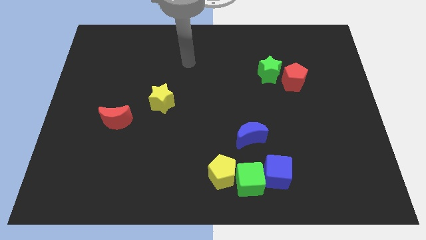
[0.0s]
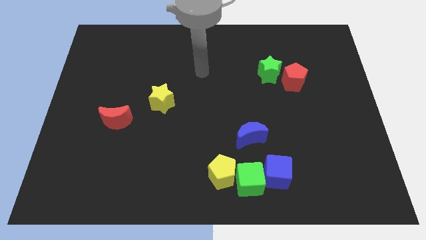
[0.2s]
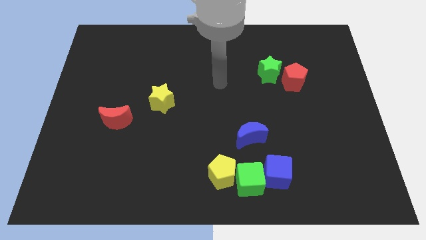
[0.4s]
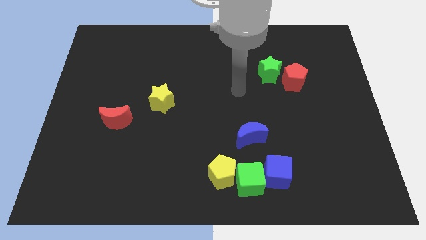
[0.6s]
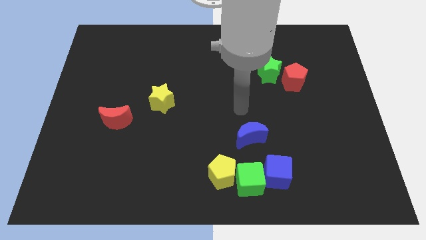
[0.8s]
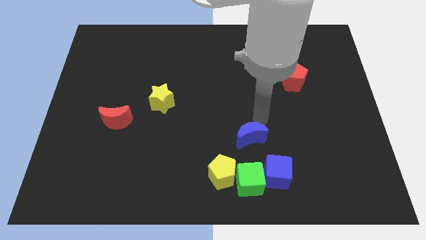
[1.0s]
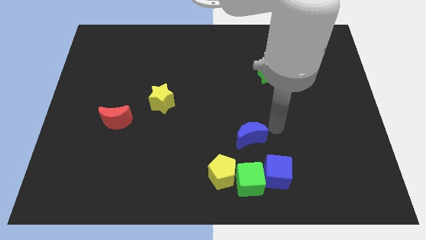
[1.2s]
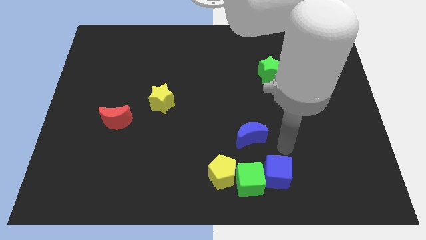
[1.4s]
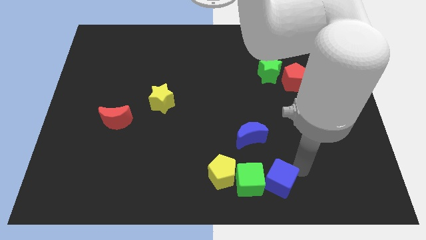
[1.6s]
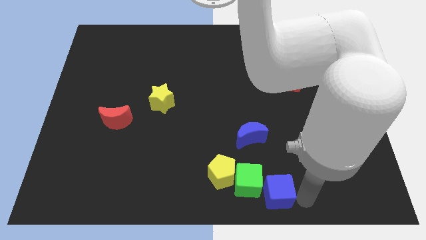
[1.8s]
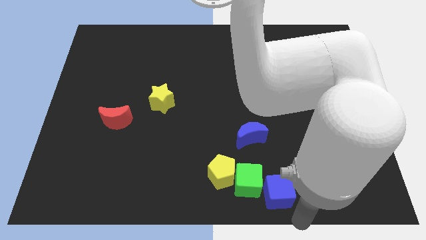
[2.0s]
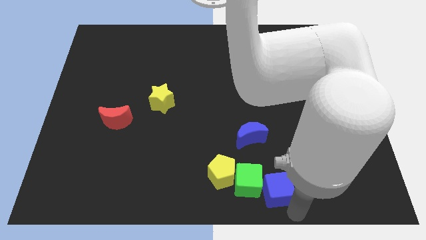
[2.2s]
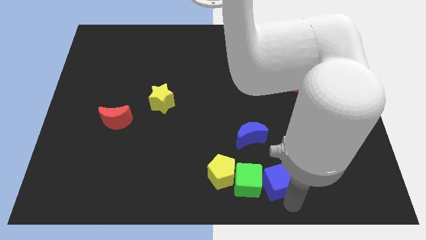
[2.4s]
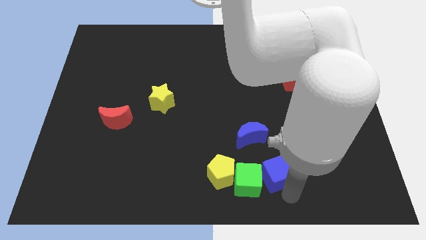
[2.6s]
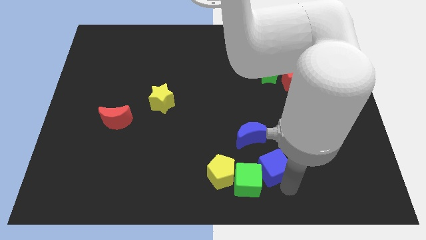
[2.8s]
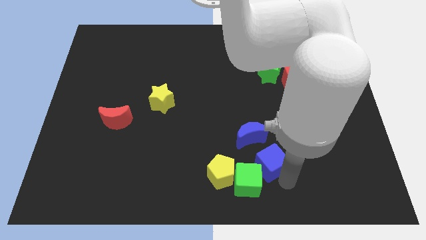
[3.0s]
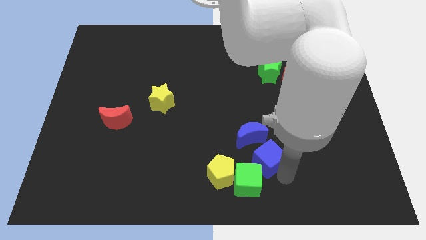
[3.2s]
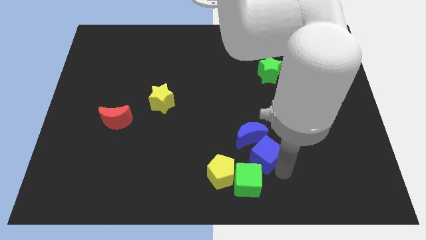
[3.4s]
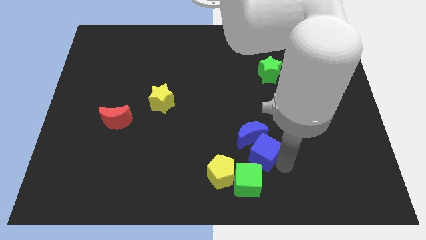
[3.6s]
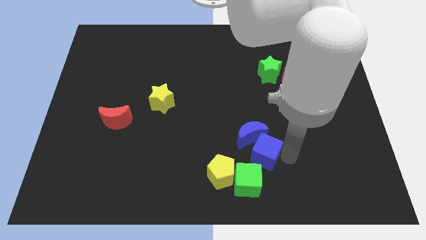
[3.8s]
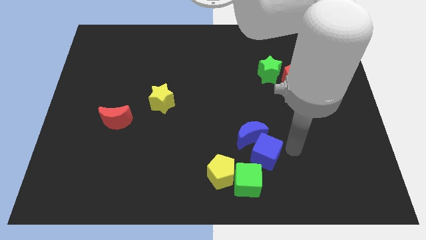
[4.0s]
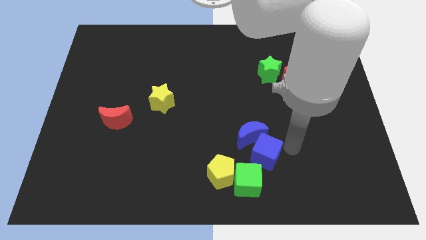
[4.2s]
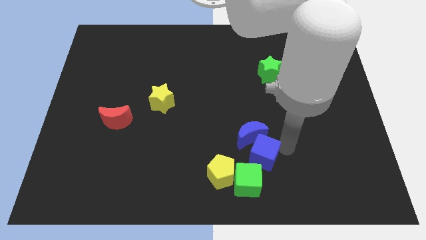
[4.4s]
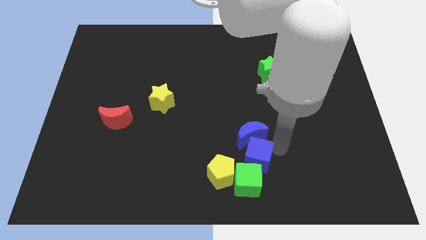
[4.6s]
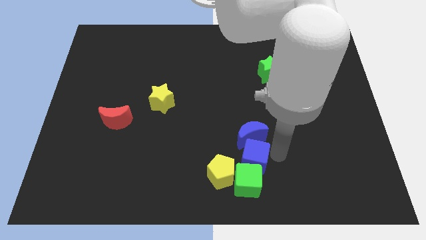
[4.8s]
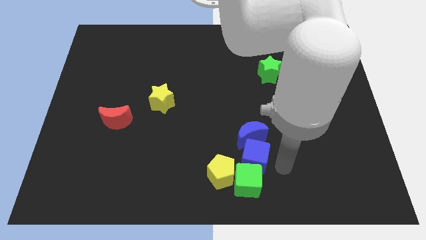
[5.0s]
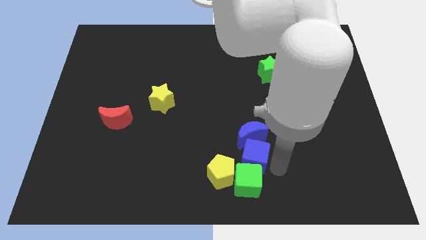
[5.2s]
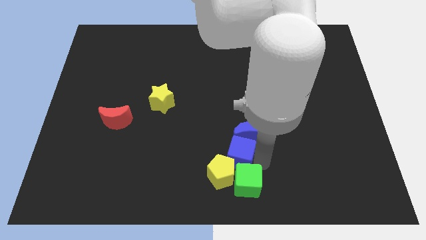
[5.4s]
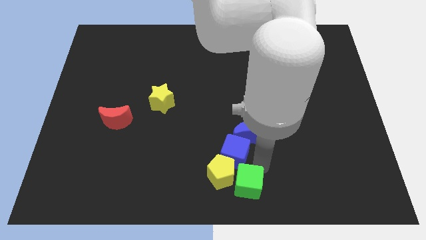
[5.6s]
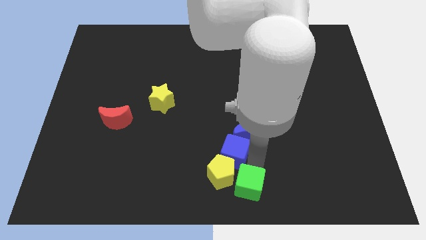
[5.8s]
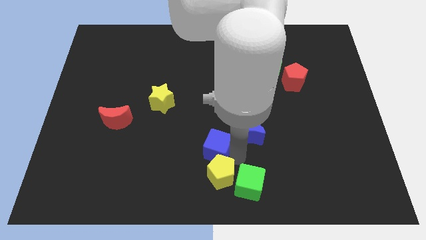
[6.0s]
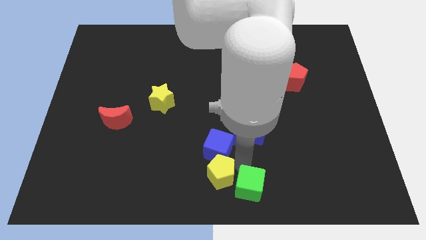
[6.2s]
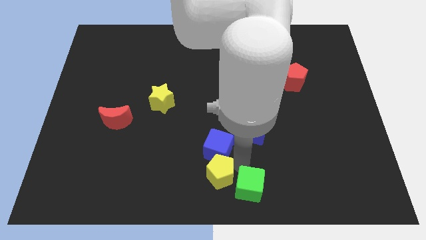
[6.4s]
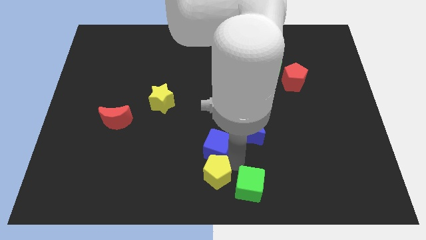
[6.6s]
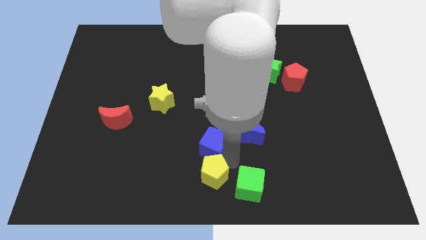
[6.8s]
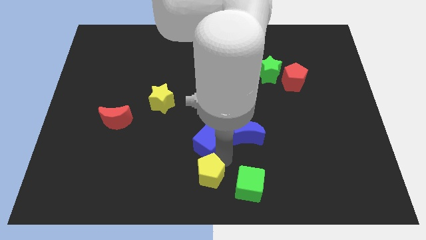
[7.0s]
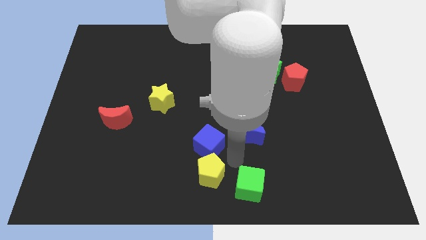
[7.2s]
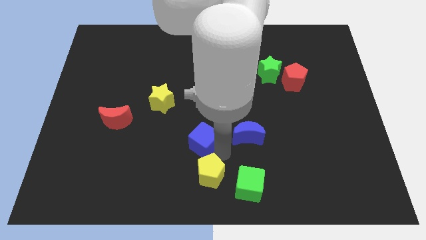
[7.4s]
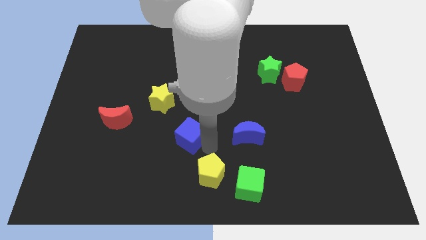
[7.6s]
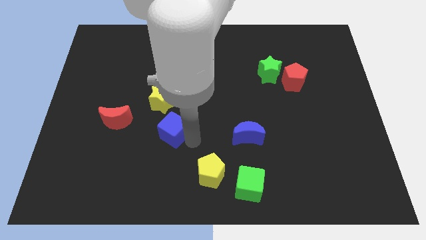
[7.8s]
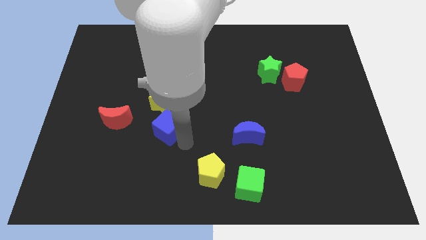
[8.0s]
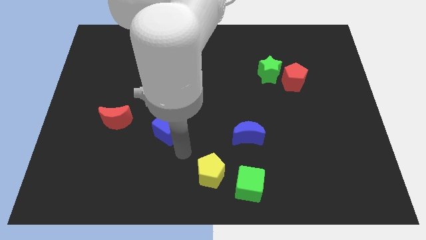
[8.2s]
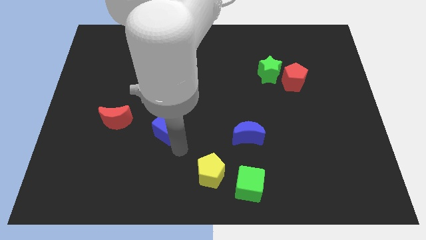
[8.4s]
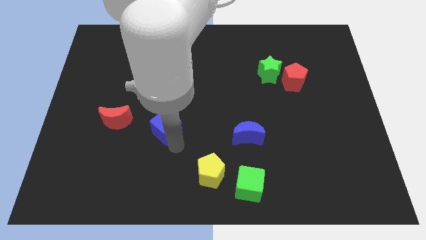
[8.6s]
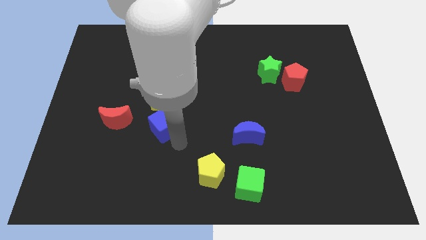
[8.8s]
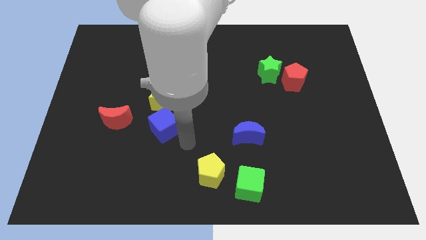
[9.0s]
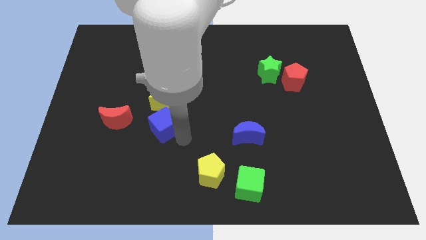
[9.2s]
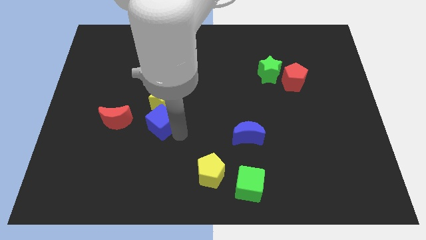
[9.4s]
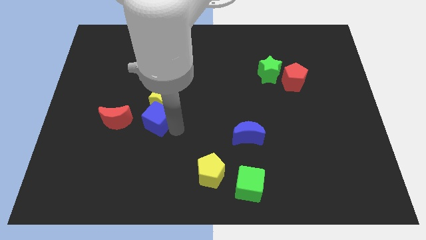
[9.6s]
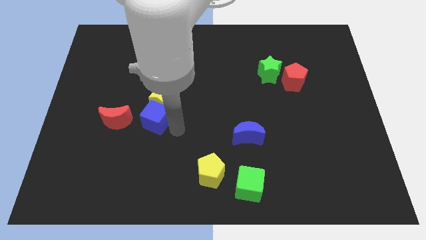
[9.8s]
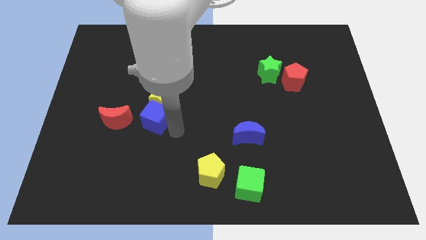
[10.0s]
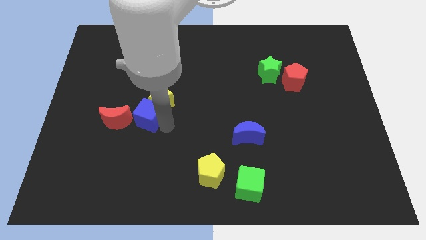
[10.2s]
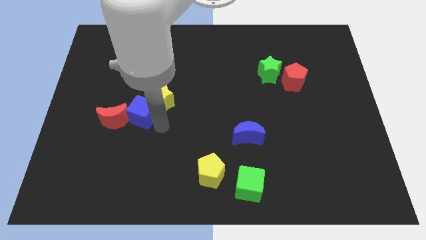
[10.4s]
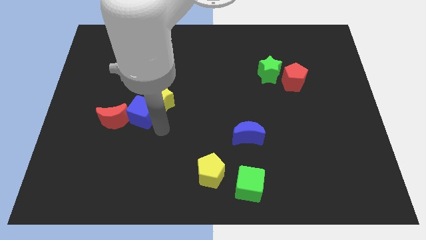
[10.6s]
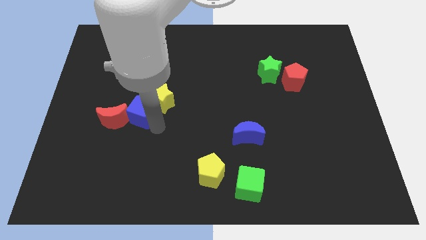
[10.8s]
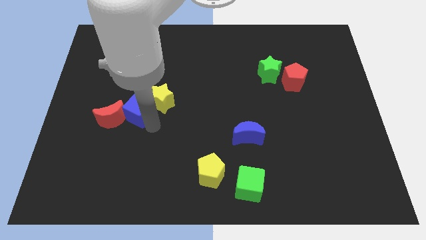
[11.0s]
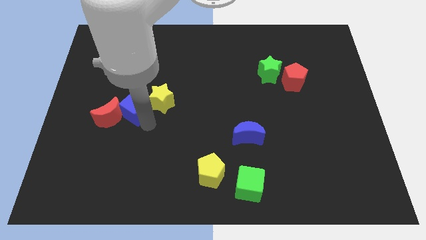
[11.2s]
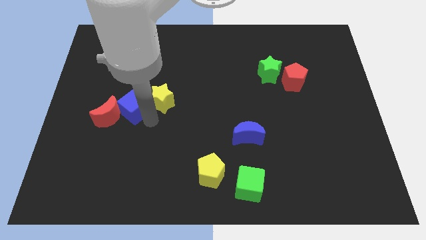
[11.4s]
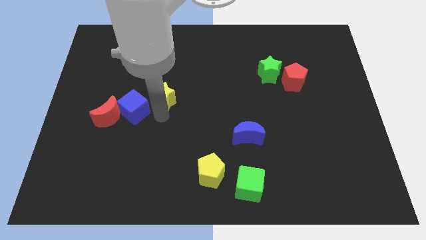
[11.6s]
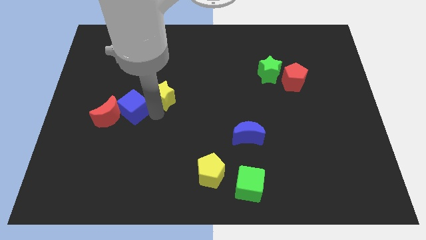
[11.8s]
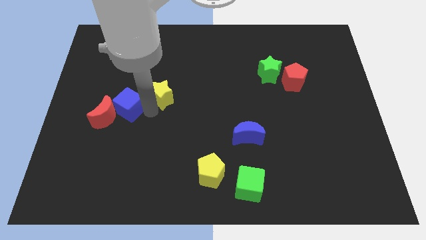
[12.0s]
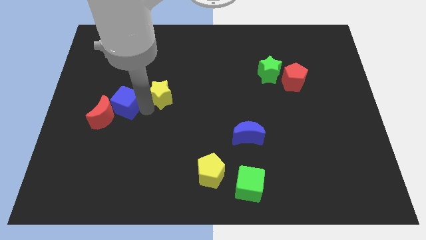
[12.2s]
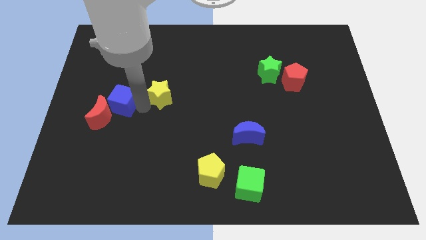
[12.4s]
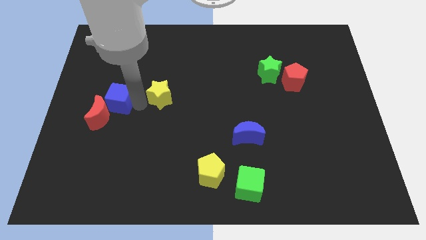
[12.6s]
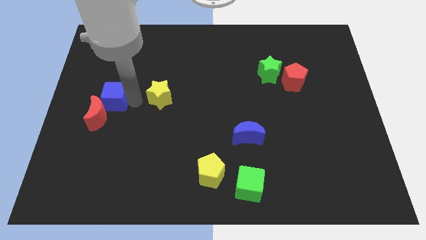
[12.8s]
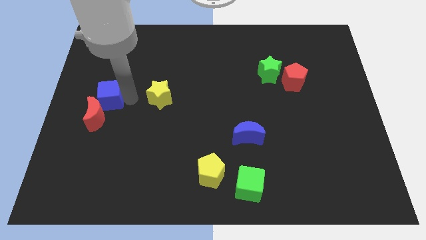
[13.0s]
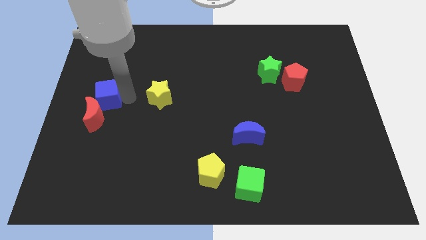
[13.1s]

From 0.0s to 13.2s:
put the blue cube to the left side of the board
